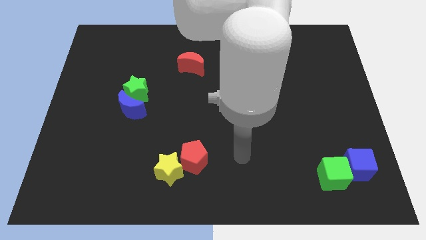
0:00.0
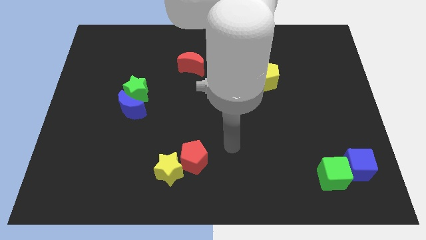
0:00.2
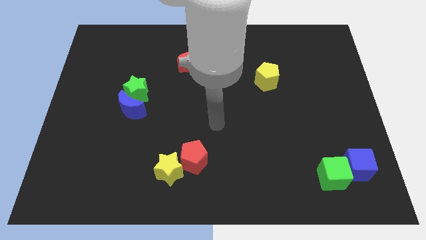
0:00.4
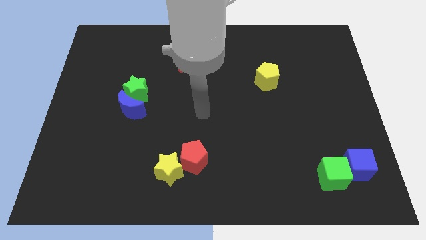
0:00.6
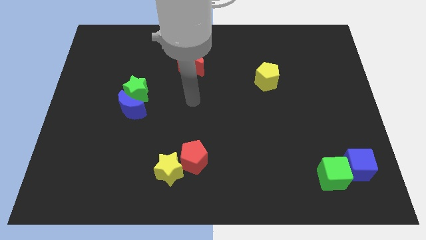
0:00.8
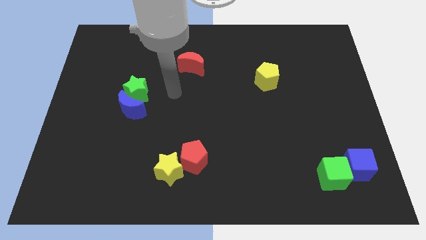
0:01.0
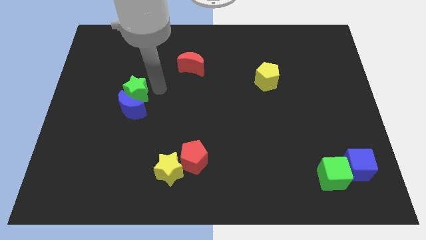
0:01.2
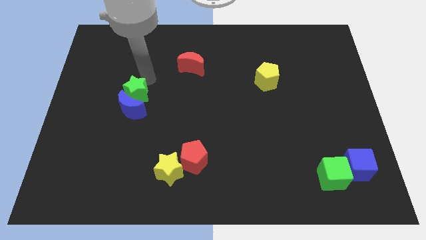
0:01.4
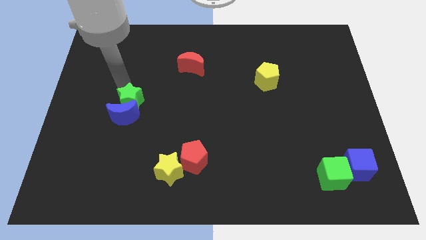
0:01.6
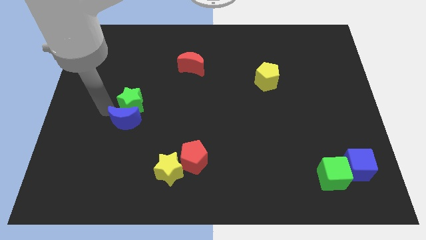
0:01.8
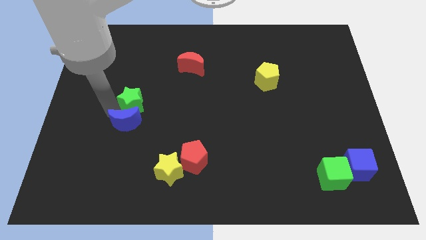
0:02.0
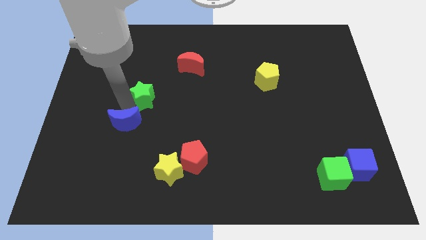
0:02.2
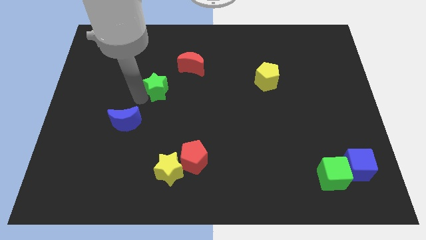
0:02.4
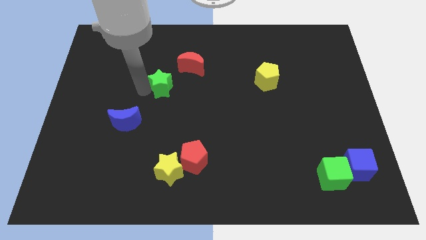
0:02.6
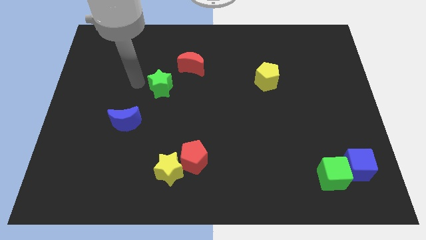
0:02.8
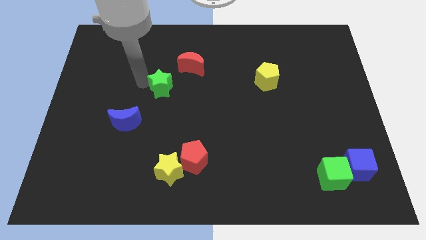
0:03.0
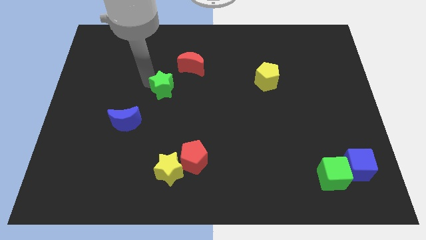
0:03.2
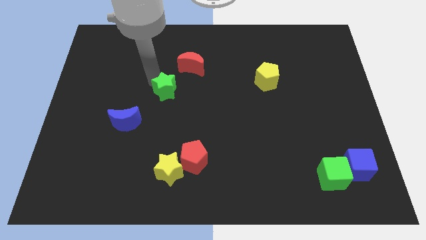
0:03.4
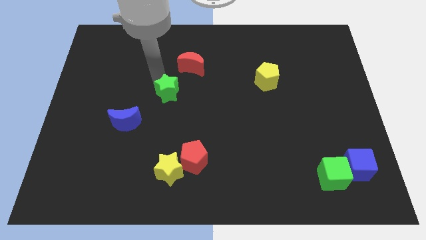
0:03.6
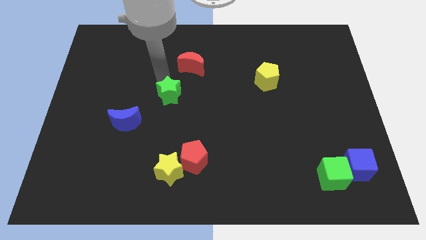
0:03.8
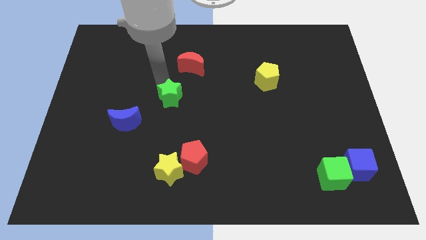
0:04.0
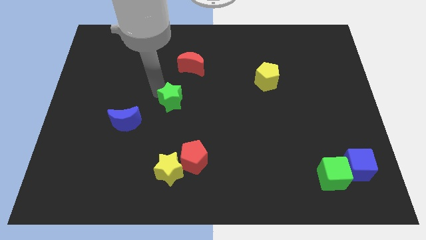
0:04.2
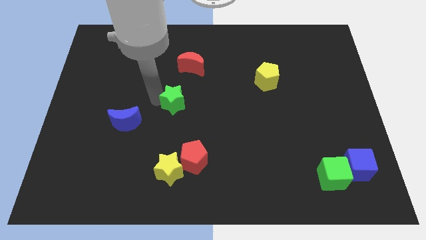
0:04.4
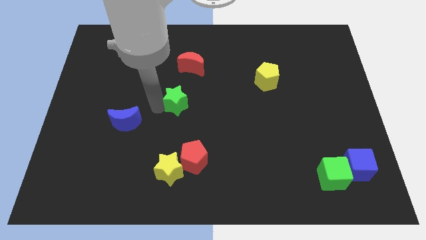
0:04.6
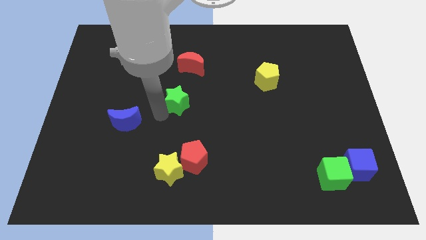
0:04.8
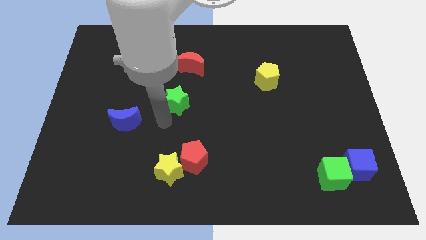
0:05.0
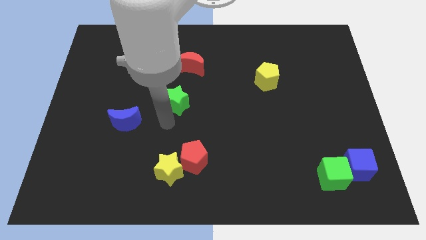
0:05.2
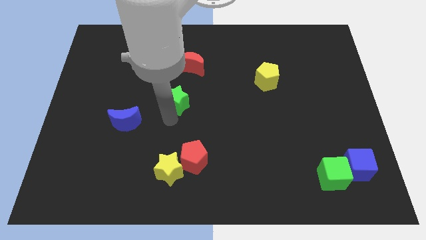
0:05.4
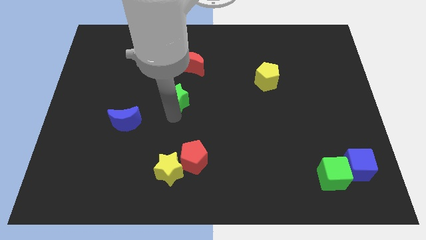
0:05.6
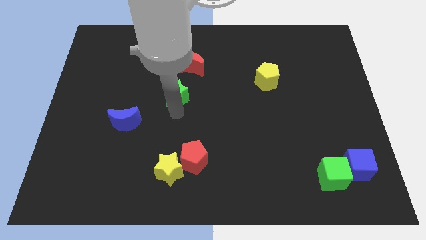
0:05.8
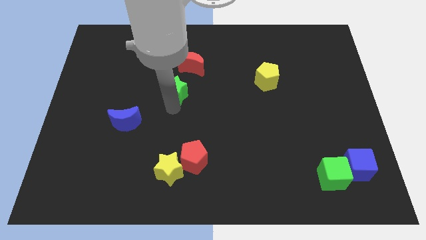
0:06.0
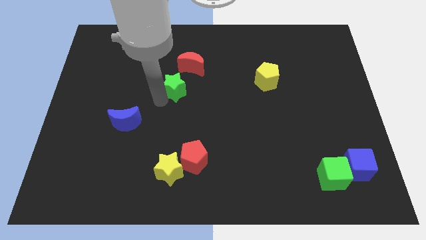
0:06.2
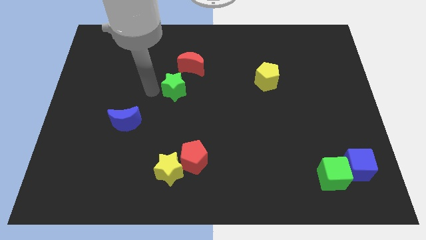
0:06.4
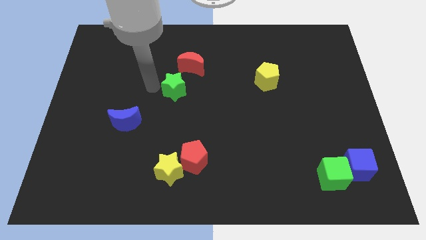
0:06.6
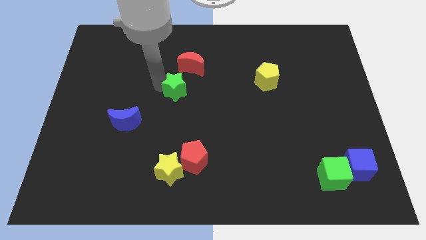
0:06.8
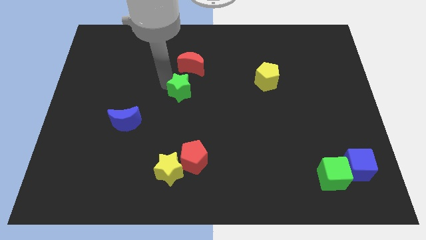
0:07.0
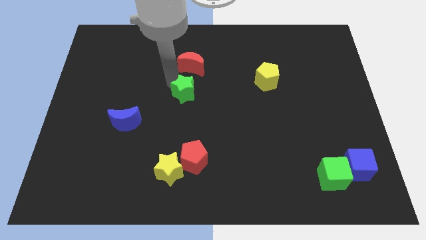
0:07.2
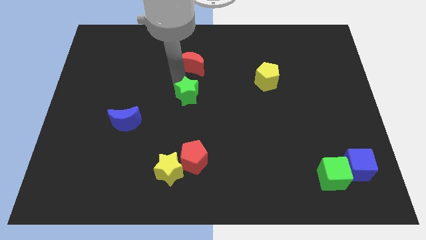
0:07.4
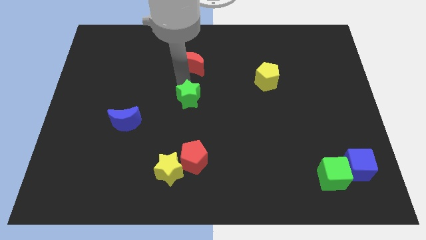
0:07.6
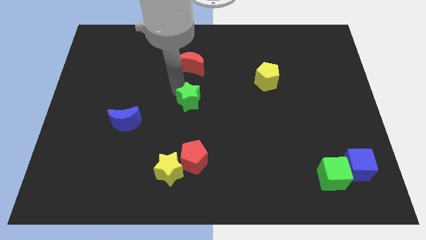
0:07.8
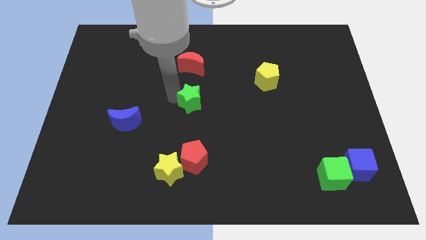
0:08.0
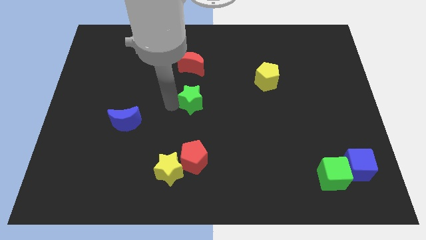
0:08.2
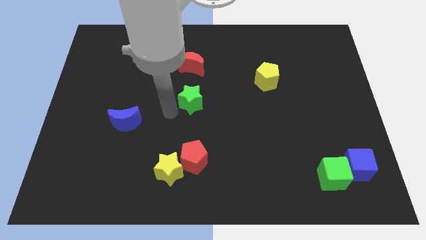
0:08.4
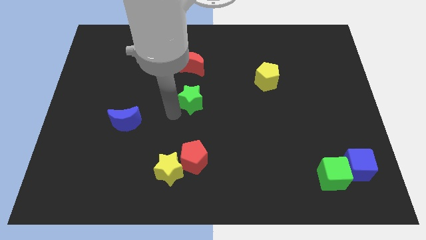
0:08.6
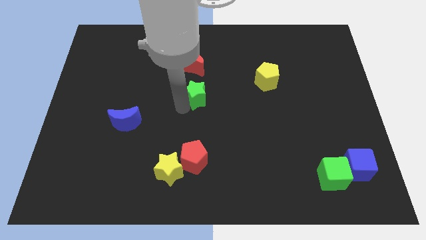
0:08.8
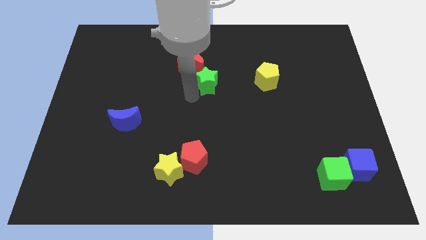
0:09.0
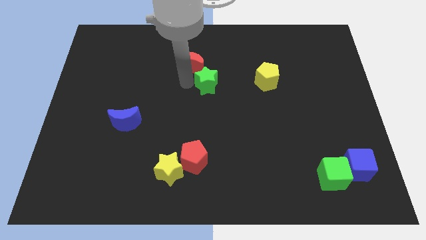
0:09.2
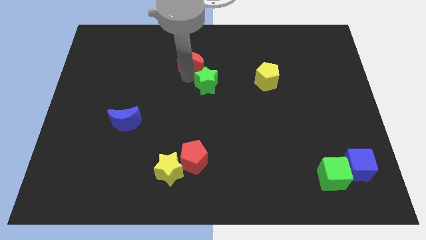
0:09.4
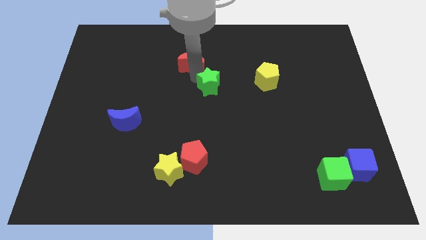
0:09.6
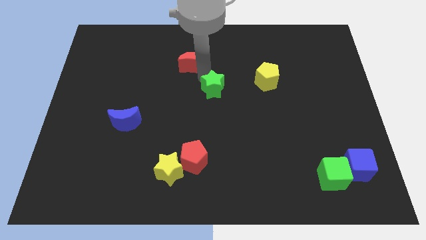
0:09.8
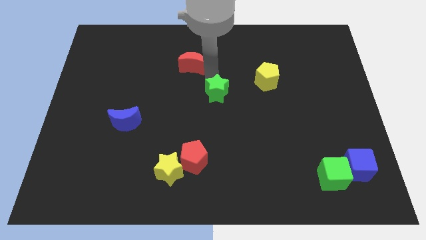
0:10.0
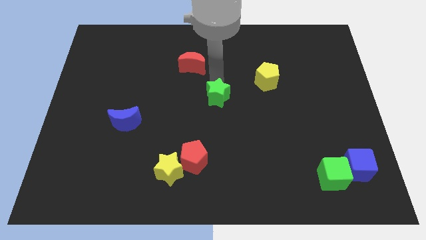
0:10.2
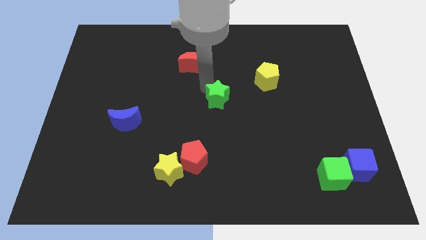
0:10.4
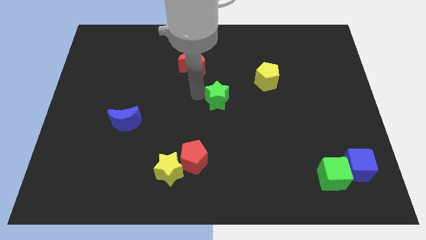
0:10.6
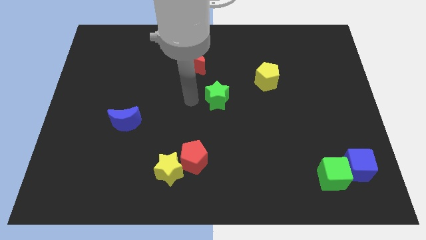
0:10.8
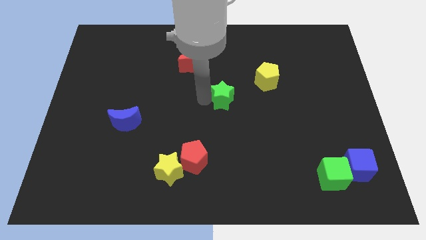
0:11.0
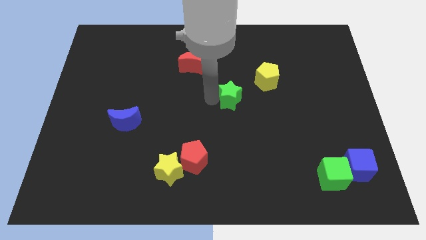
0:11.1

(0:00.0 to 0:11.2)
slide the green star to the bottom left side of the yellow pentagon

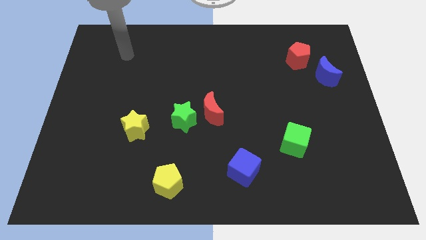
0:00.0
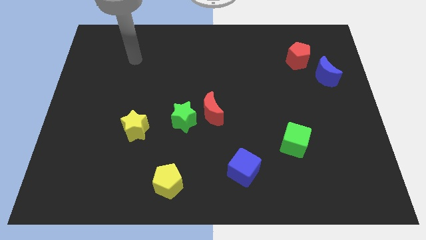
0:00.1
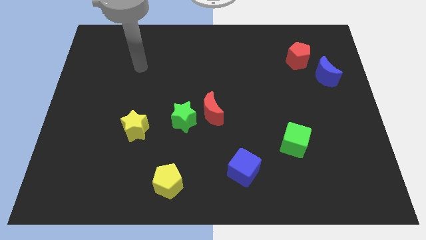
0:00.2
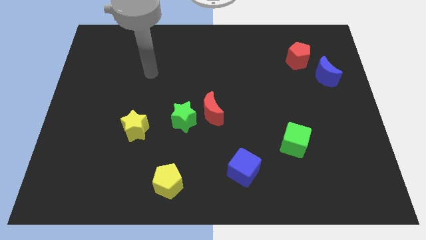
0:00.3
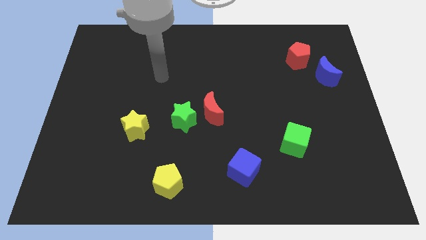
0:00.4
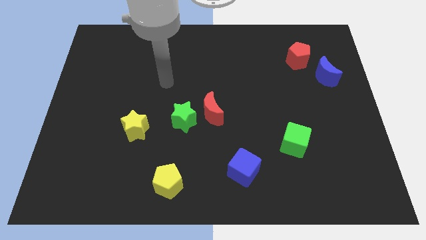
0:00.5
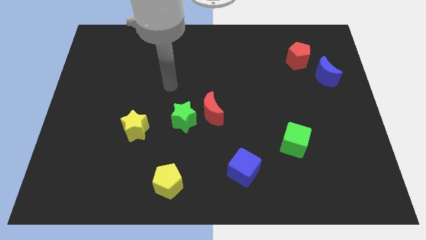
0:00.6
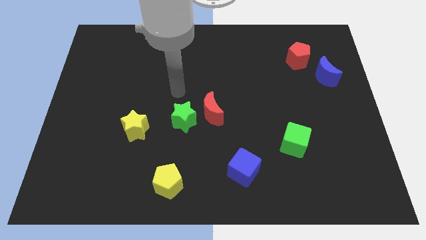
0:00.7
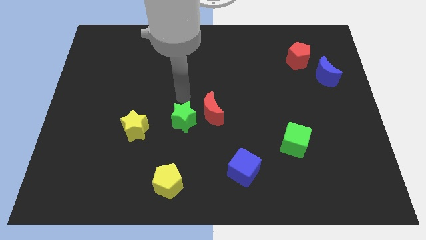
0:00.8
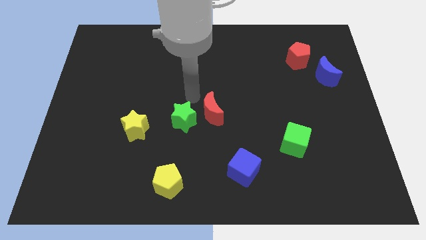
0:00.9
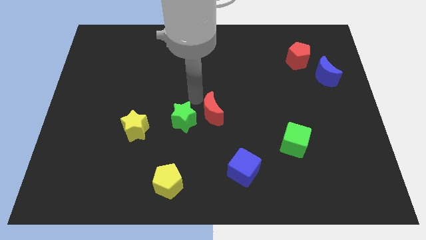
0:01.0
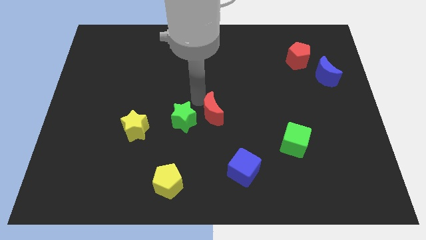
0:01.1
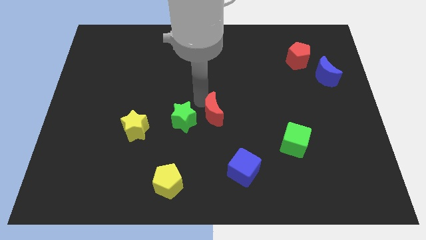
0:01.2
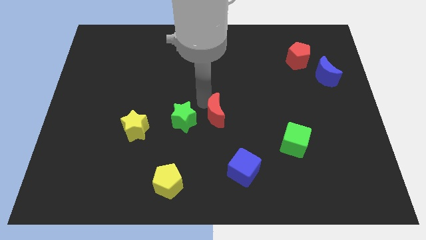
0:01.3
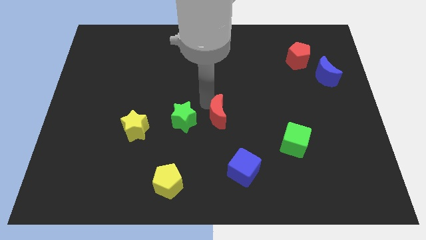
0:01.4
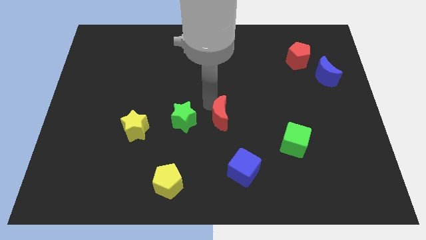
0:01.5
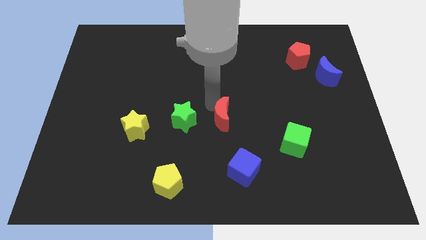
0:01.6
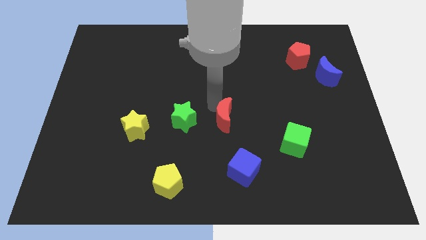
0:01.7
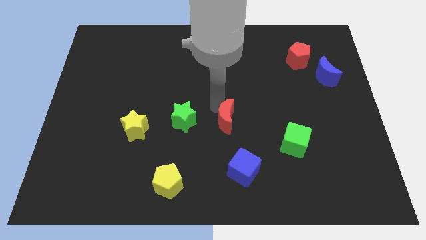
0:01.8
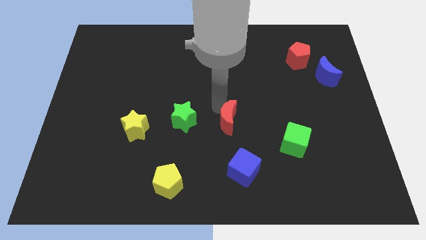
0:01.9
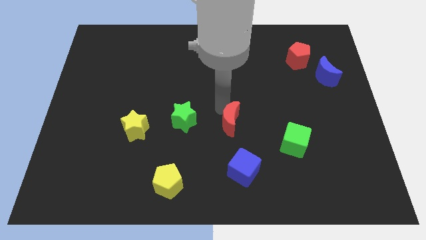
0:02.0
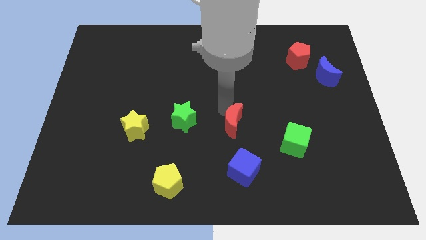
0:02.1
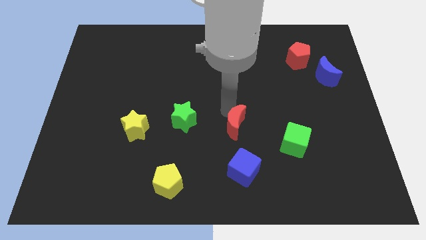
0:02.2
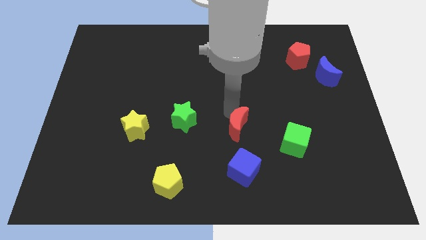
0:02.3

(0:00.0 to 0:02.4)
put the red moon to the left of the green cube

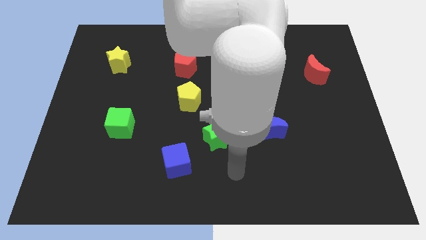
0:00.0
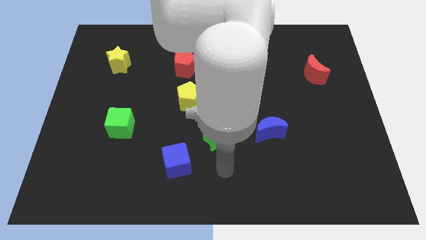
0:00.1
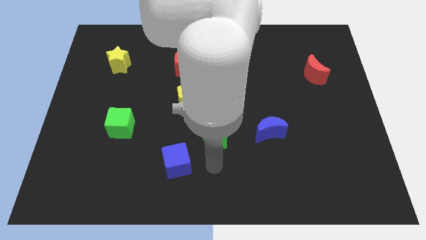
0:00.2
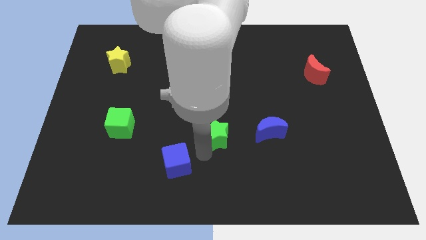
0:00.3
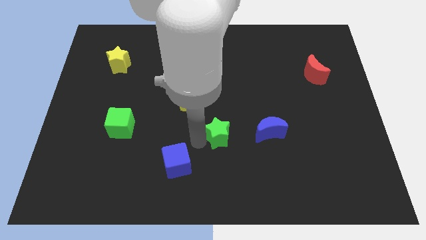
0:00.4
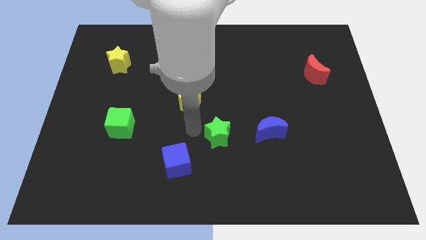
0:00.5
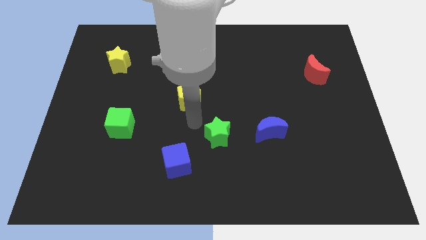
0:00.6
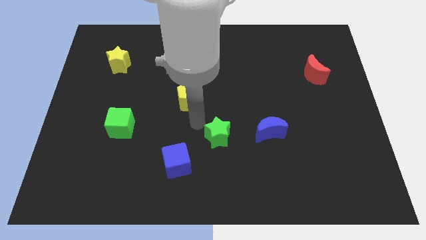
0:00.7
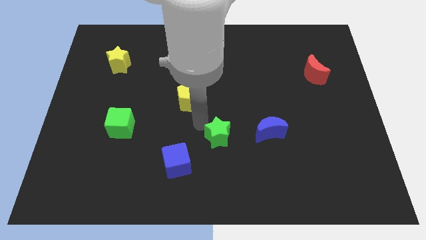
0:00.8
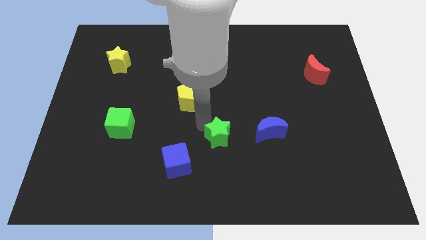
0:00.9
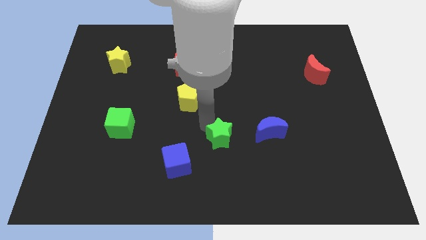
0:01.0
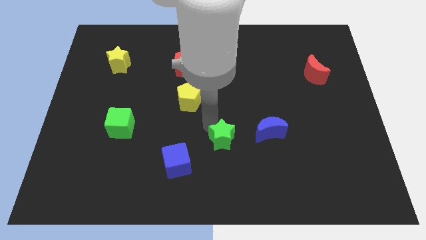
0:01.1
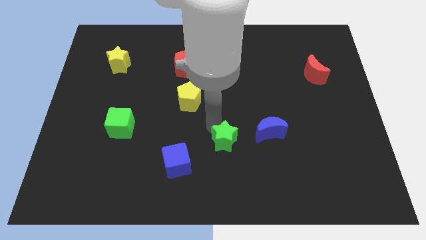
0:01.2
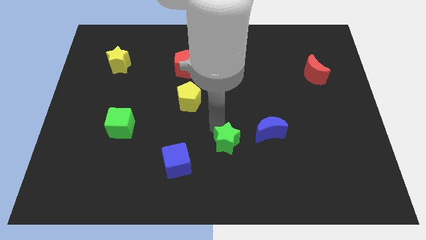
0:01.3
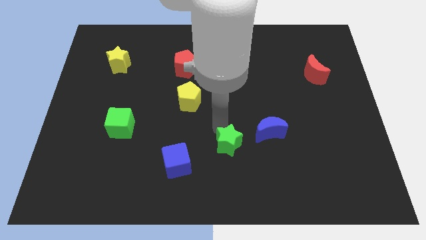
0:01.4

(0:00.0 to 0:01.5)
put the green star to the bottom left side of the blue moon
